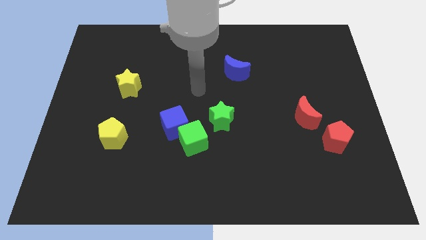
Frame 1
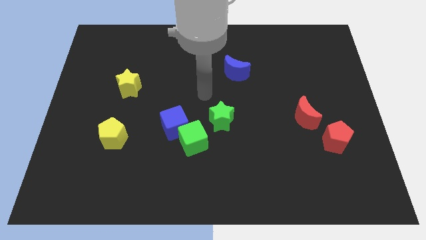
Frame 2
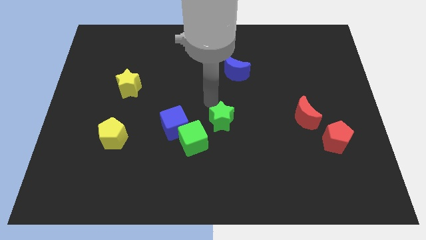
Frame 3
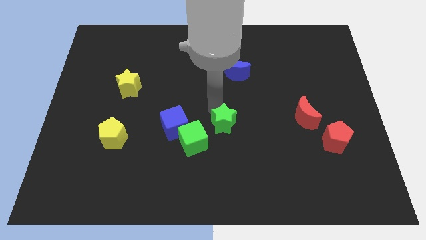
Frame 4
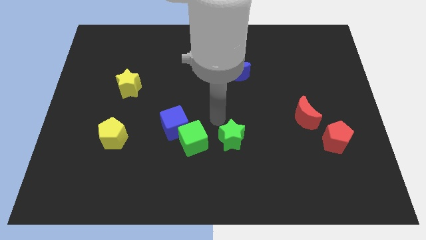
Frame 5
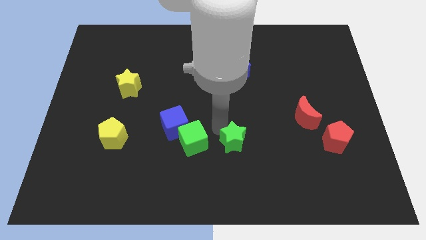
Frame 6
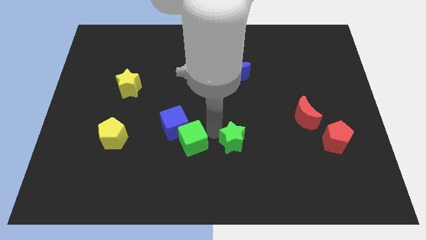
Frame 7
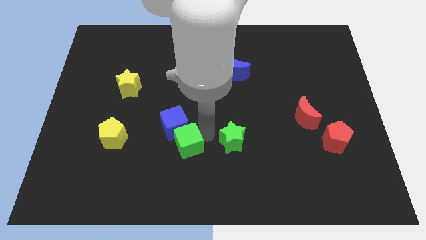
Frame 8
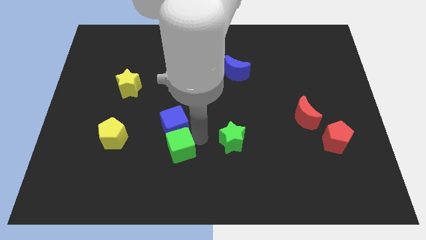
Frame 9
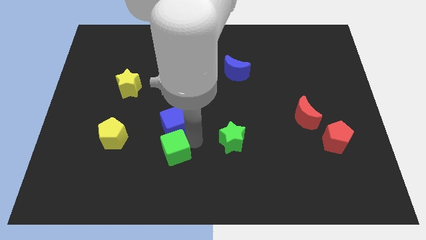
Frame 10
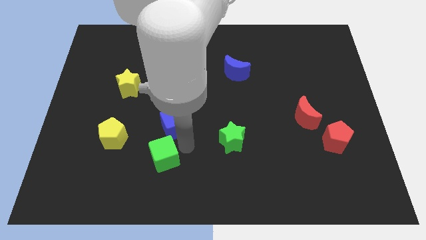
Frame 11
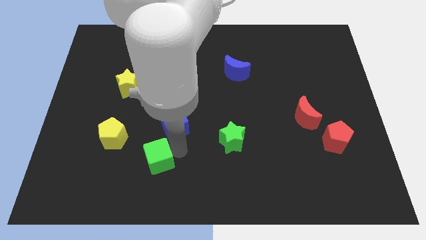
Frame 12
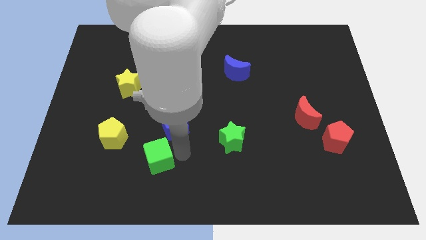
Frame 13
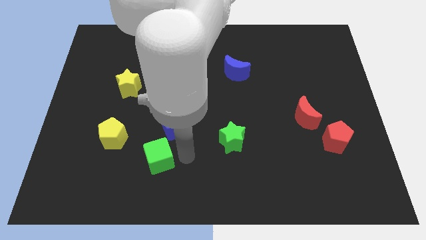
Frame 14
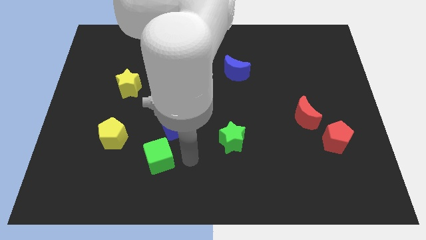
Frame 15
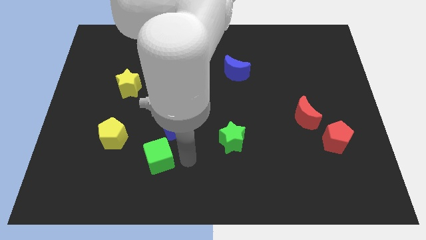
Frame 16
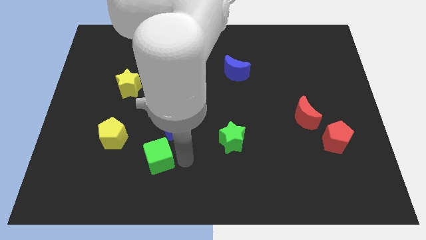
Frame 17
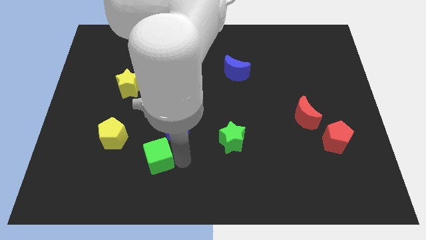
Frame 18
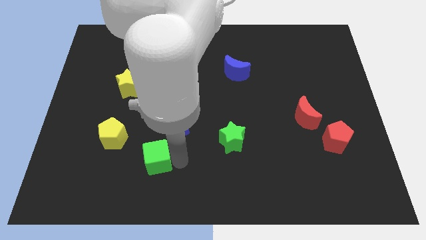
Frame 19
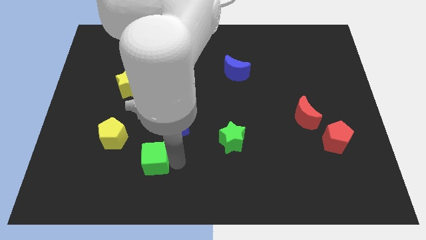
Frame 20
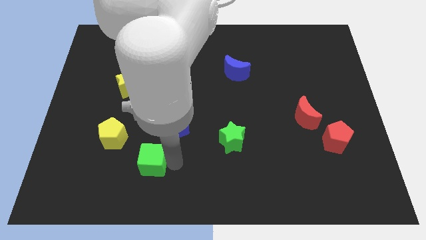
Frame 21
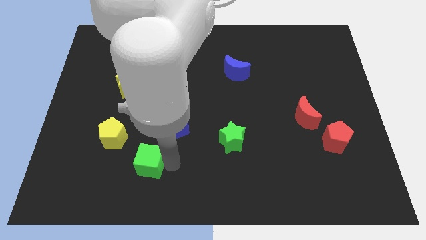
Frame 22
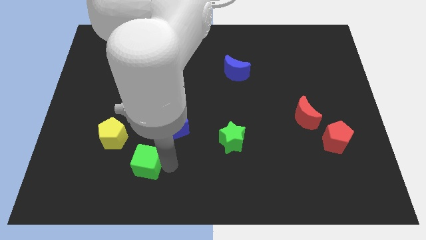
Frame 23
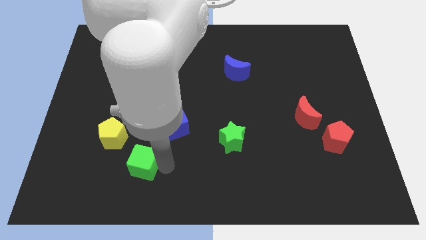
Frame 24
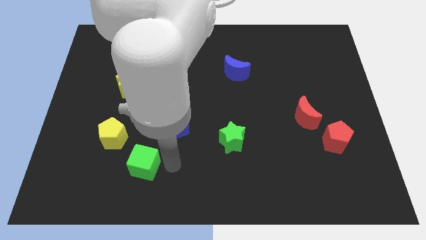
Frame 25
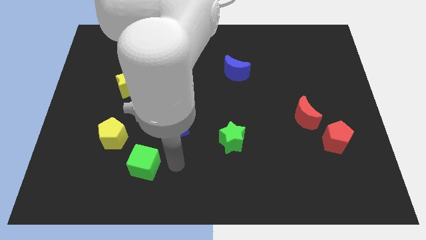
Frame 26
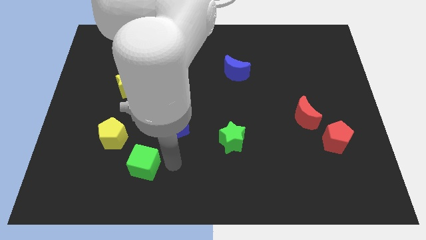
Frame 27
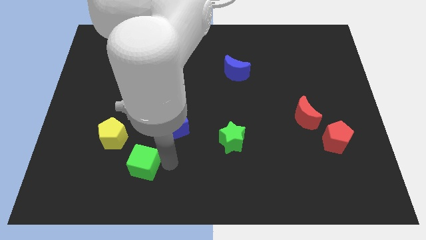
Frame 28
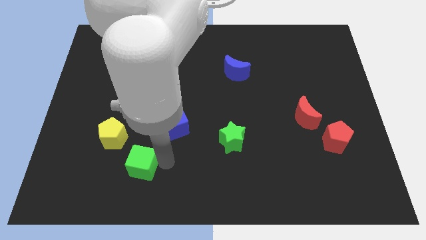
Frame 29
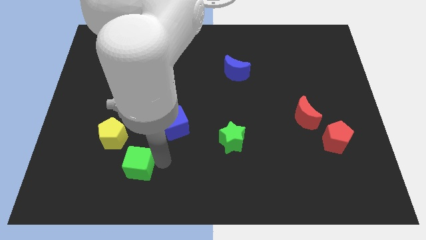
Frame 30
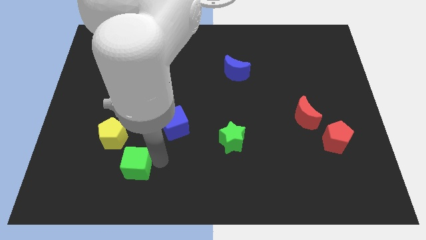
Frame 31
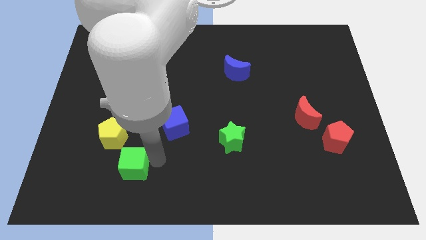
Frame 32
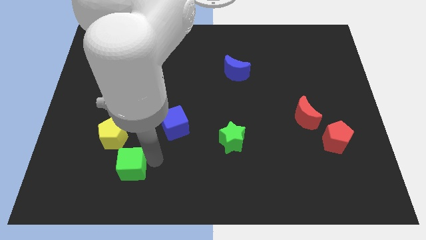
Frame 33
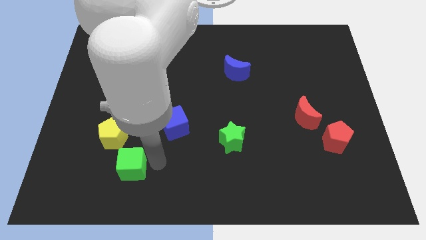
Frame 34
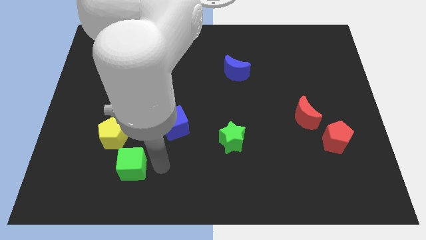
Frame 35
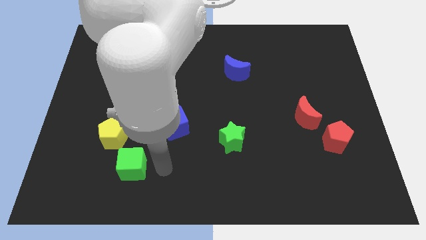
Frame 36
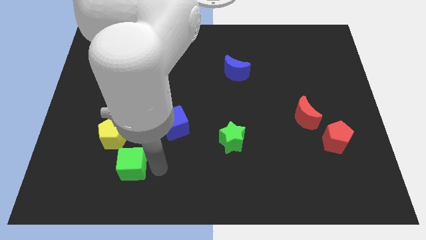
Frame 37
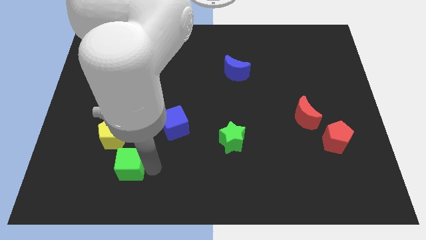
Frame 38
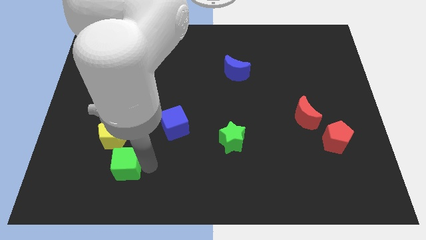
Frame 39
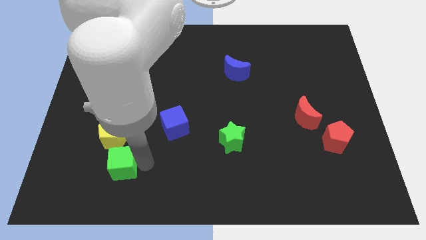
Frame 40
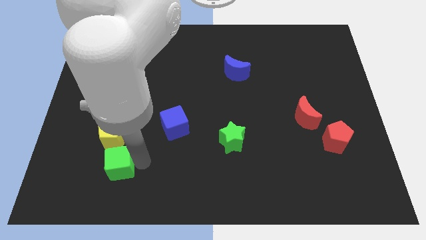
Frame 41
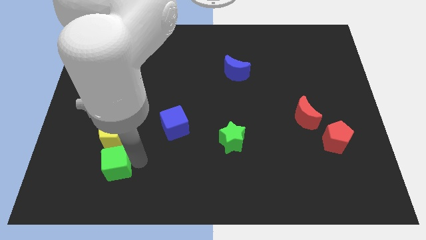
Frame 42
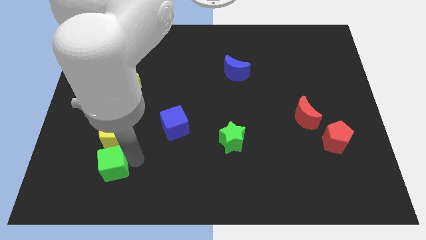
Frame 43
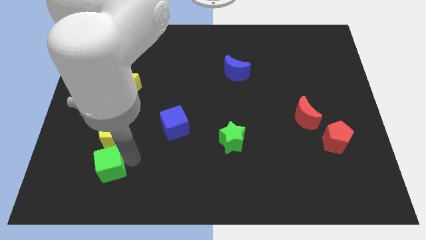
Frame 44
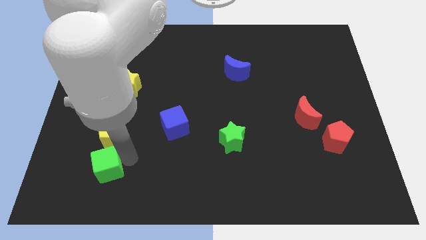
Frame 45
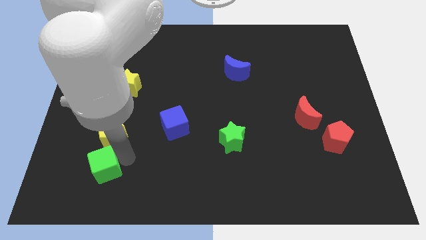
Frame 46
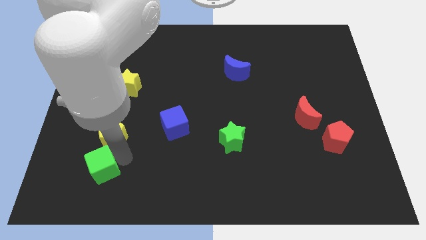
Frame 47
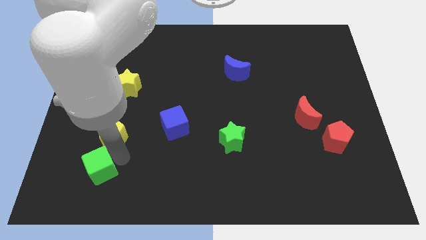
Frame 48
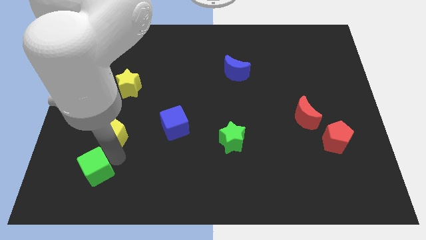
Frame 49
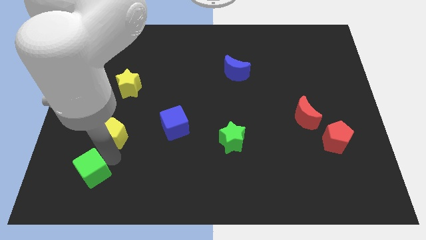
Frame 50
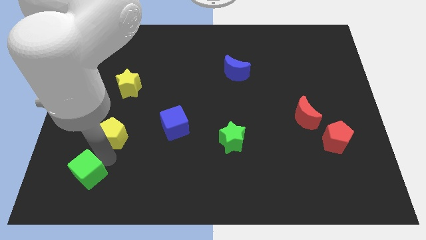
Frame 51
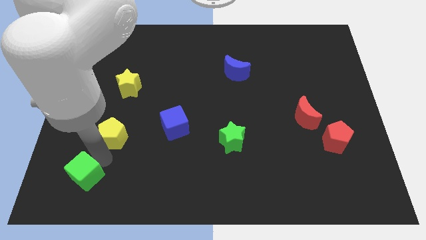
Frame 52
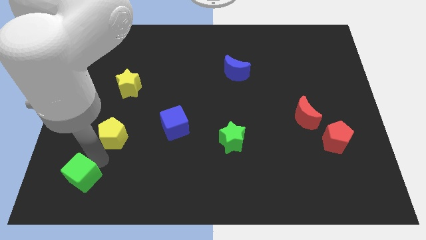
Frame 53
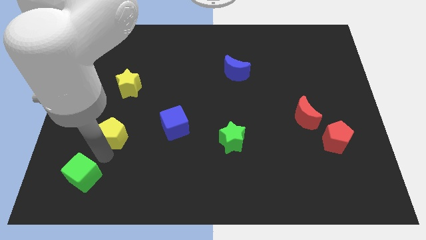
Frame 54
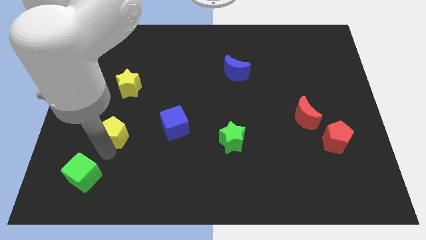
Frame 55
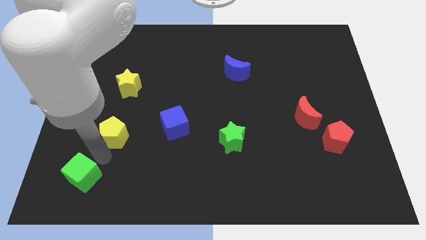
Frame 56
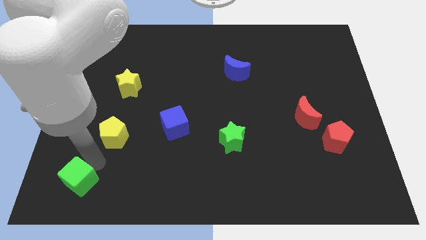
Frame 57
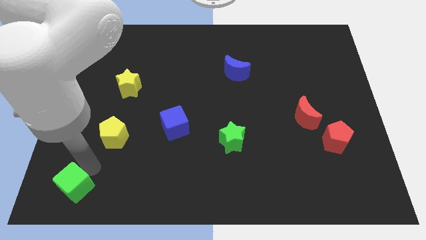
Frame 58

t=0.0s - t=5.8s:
put the green cube to the lower left corner
